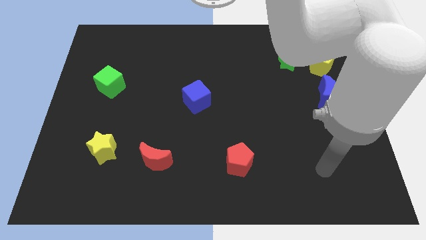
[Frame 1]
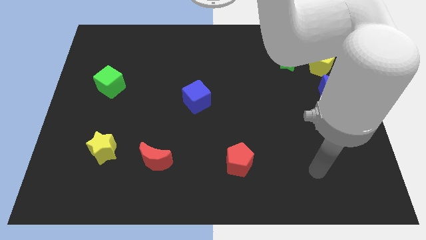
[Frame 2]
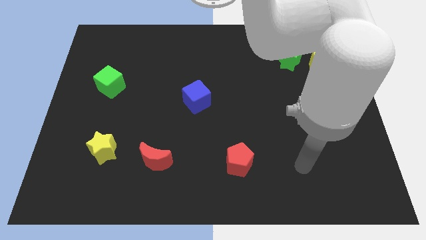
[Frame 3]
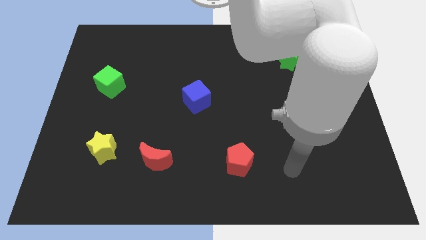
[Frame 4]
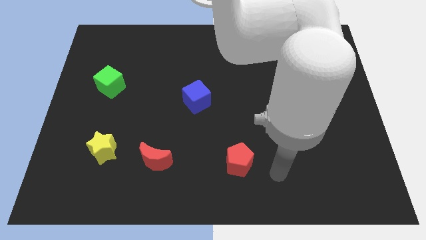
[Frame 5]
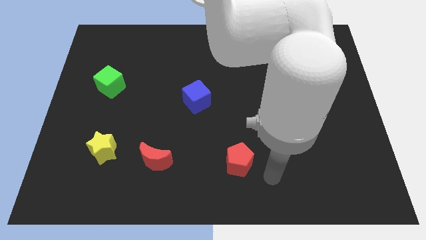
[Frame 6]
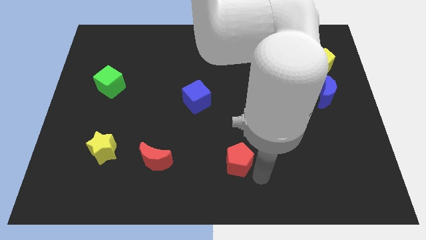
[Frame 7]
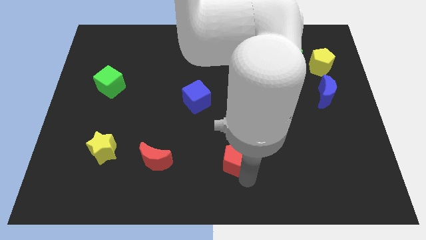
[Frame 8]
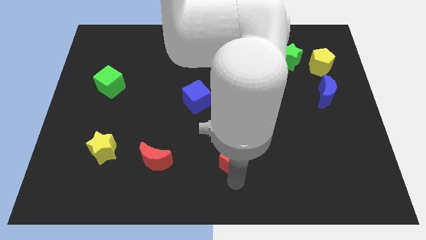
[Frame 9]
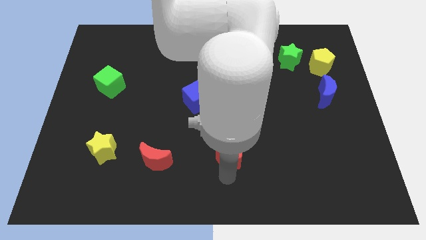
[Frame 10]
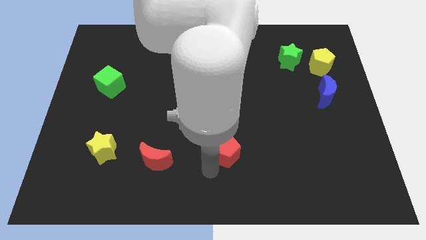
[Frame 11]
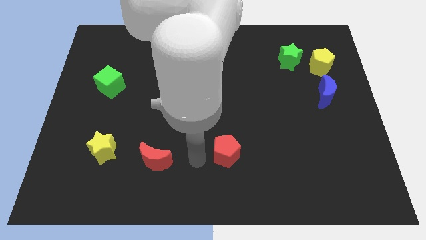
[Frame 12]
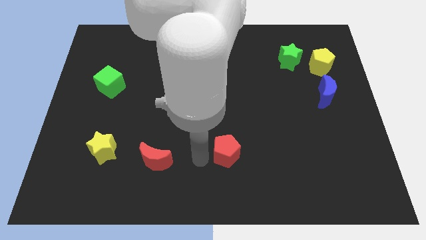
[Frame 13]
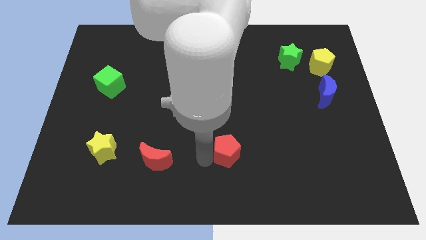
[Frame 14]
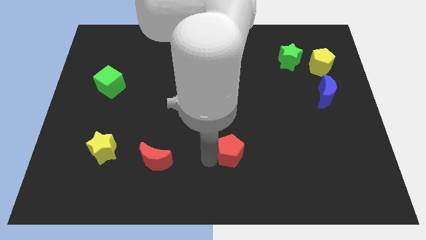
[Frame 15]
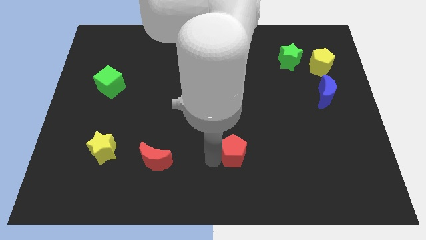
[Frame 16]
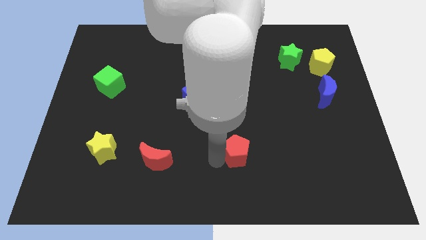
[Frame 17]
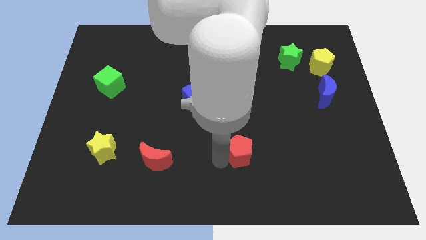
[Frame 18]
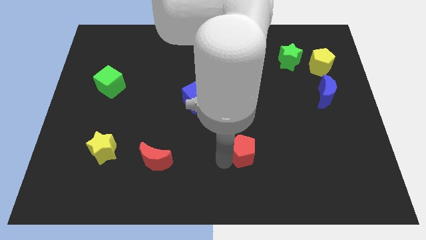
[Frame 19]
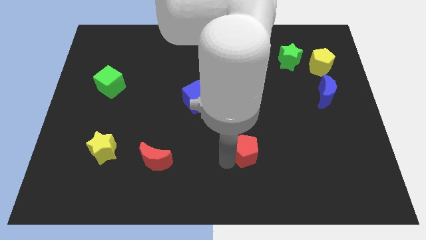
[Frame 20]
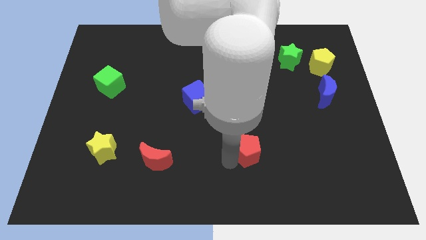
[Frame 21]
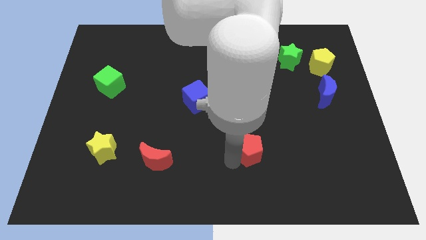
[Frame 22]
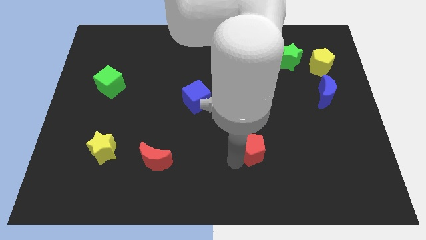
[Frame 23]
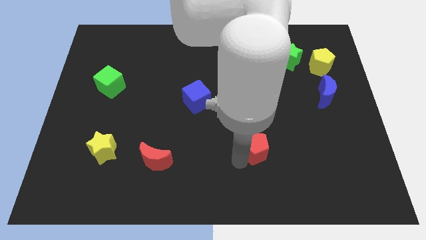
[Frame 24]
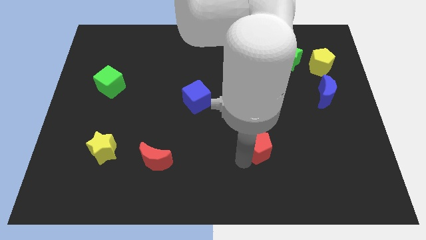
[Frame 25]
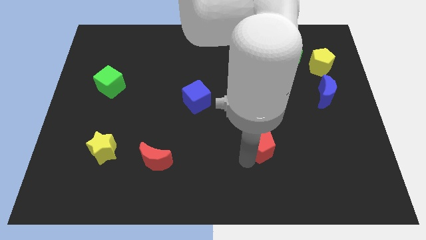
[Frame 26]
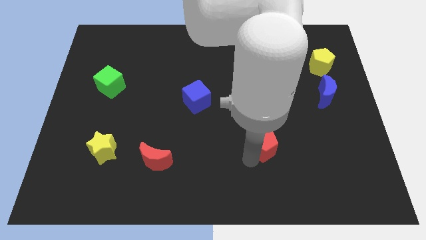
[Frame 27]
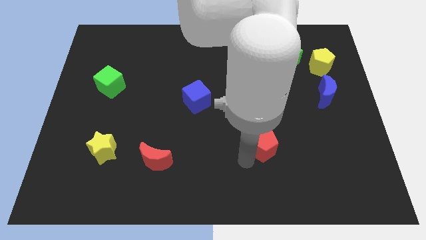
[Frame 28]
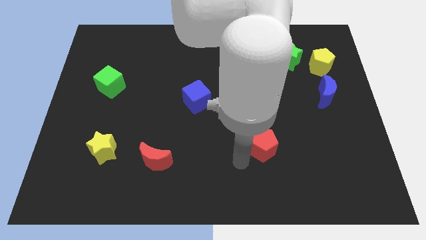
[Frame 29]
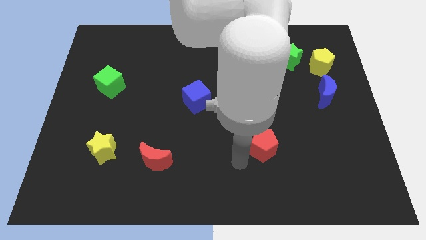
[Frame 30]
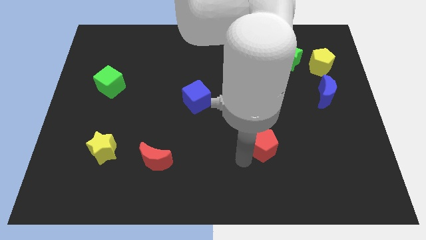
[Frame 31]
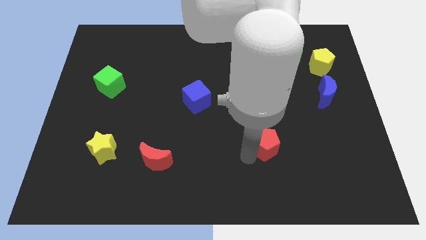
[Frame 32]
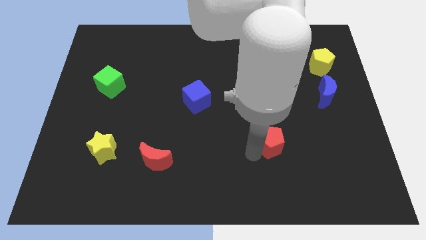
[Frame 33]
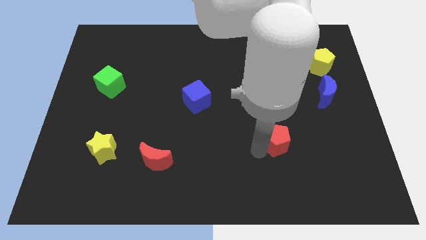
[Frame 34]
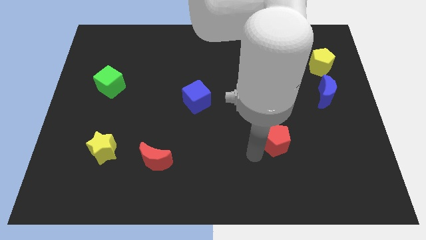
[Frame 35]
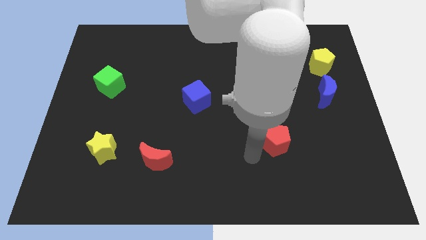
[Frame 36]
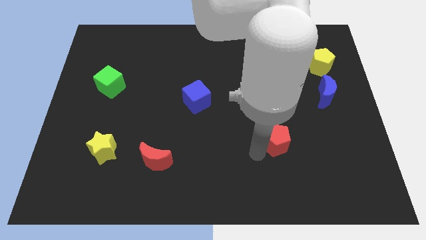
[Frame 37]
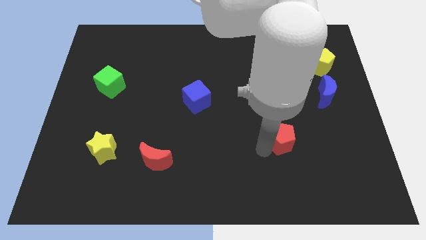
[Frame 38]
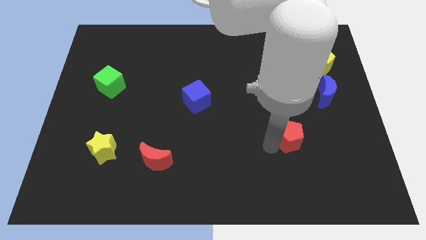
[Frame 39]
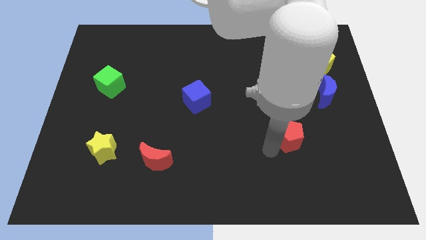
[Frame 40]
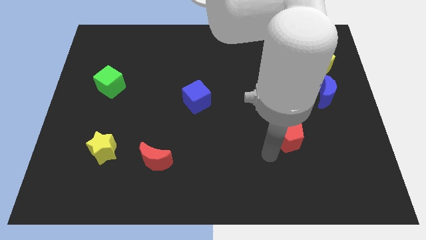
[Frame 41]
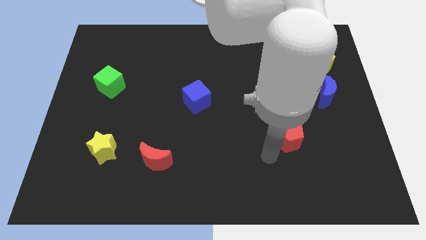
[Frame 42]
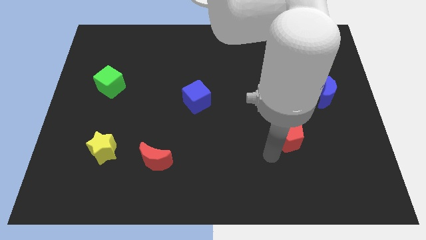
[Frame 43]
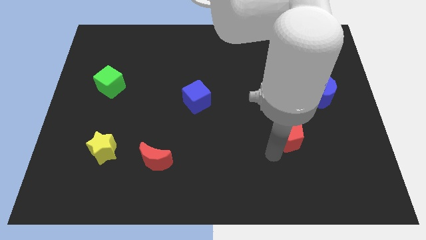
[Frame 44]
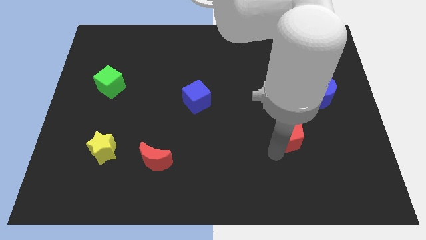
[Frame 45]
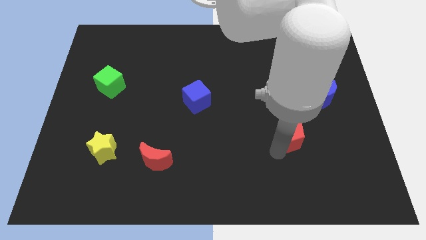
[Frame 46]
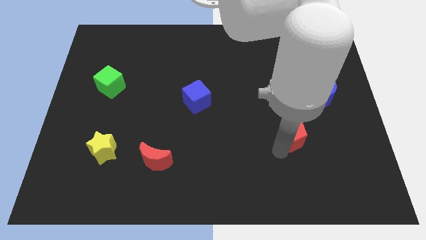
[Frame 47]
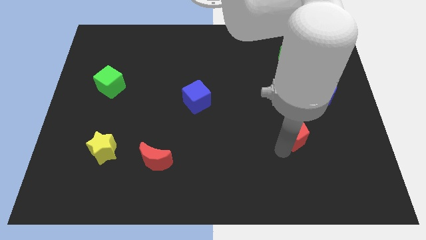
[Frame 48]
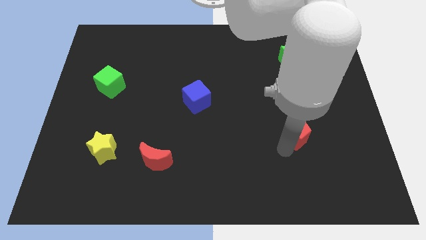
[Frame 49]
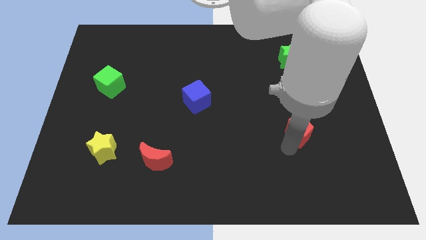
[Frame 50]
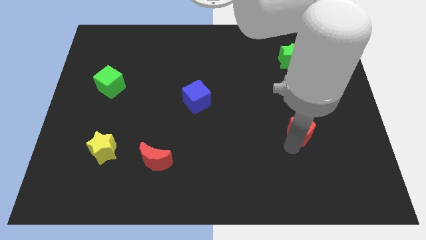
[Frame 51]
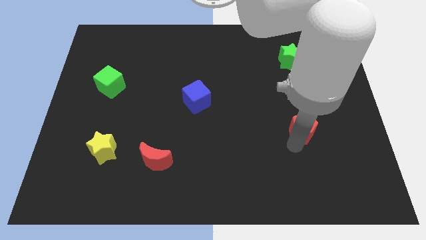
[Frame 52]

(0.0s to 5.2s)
move the red pentagon diagonally down and to the left of the blue moon

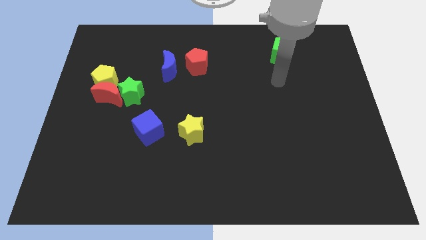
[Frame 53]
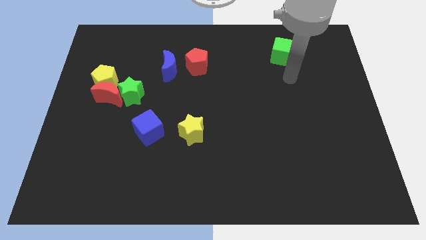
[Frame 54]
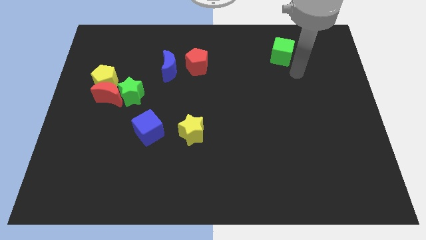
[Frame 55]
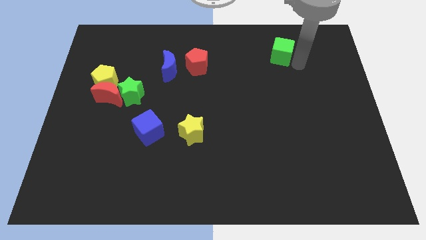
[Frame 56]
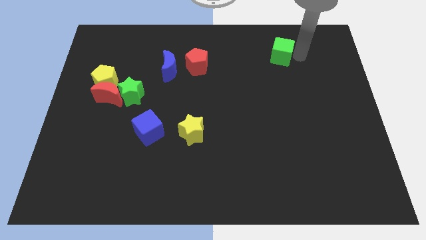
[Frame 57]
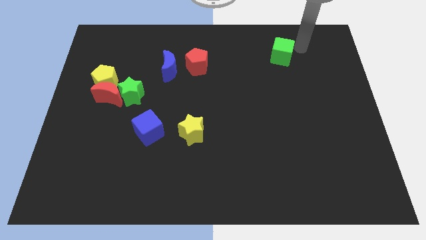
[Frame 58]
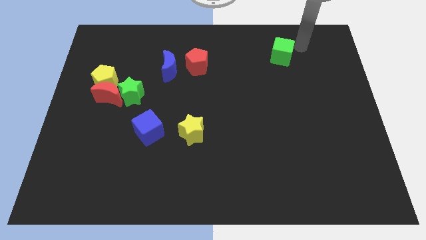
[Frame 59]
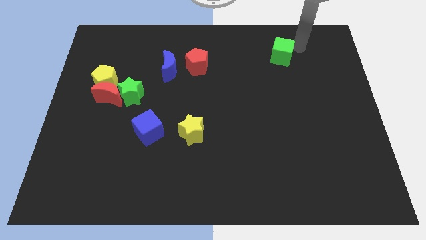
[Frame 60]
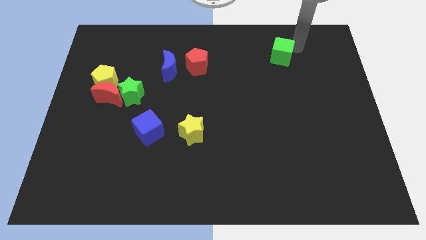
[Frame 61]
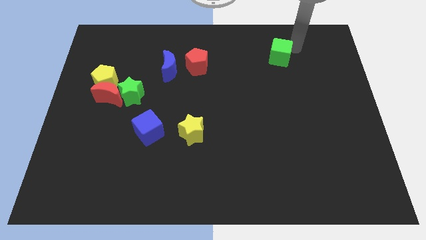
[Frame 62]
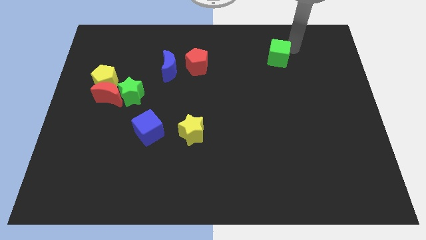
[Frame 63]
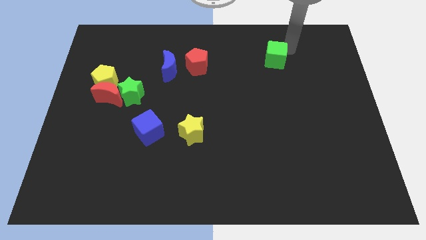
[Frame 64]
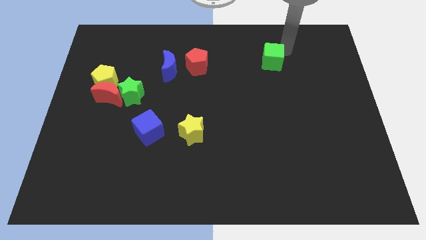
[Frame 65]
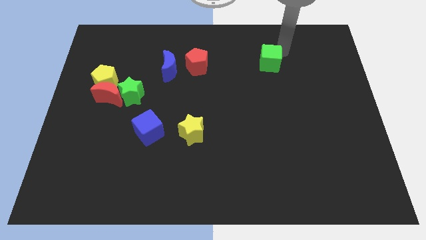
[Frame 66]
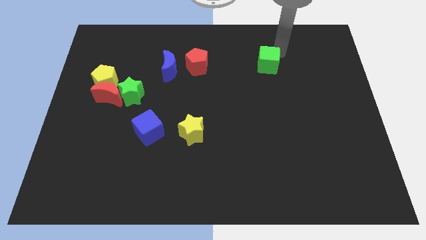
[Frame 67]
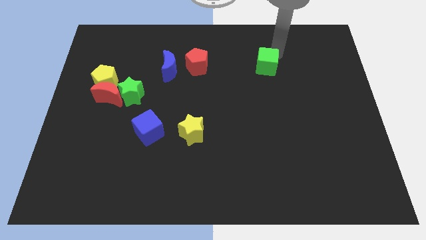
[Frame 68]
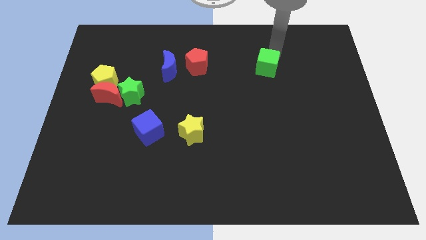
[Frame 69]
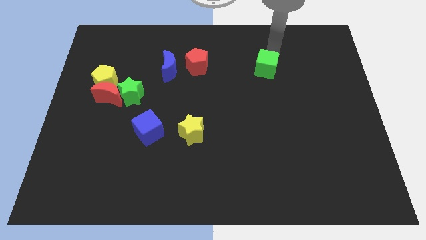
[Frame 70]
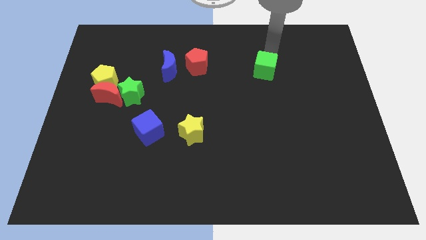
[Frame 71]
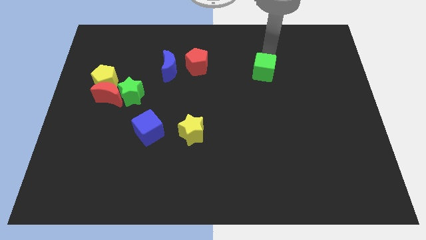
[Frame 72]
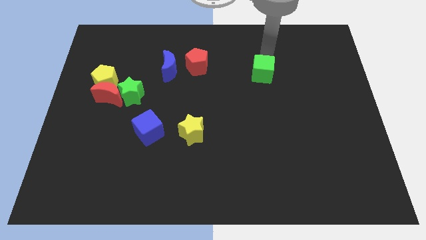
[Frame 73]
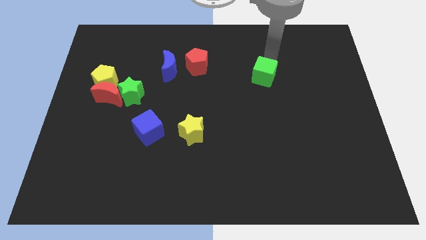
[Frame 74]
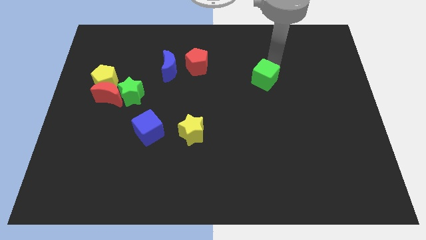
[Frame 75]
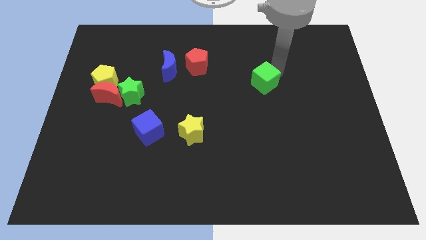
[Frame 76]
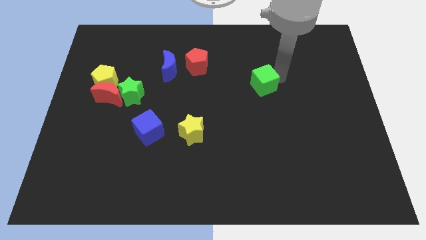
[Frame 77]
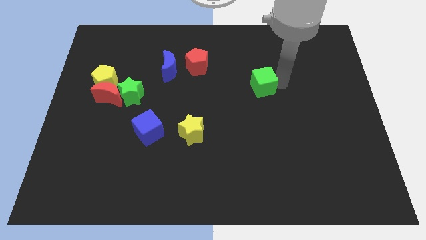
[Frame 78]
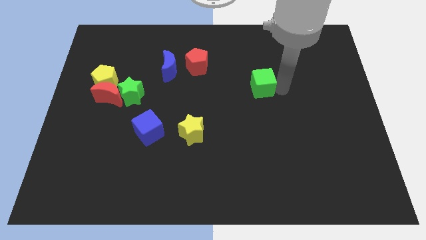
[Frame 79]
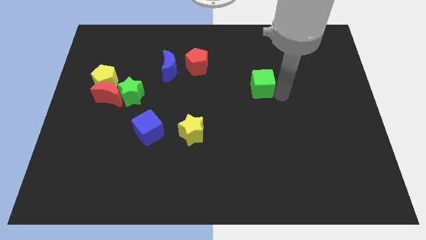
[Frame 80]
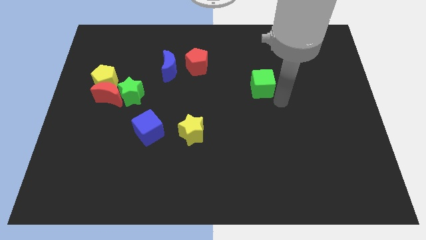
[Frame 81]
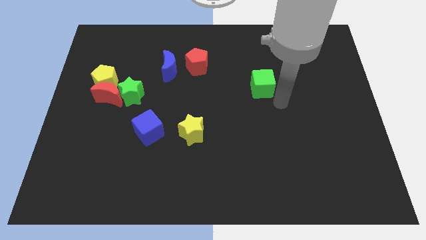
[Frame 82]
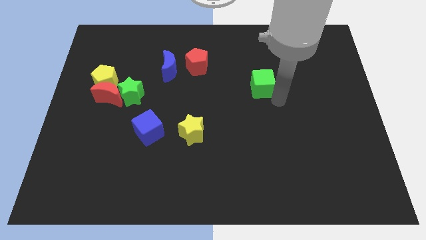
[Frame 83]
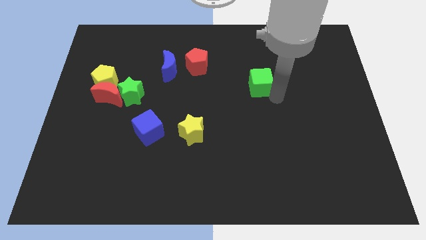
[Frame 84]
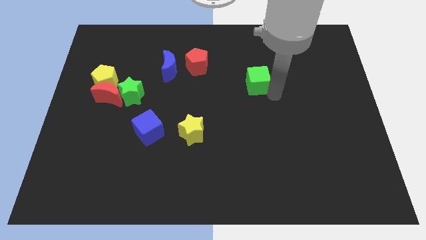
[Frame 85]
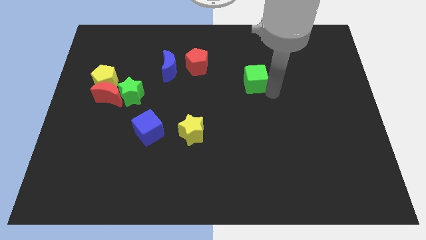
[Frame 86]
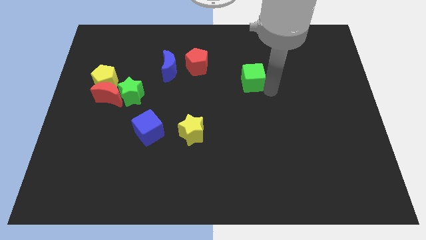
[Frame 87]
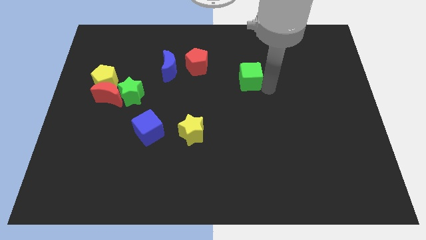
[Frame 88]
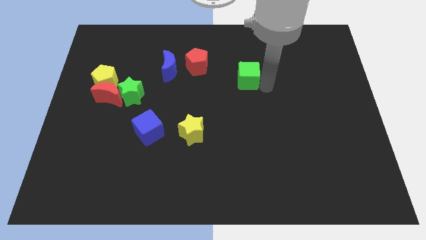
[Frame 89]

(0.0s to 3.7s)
put the green cube just right of the red pentagon
